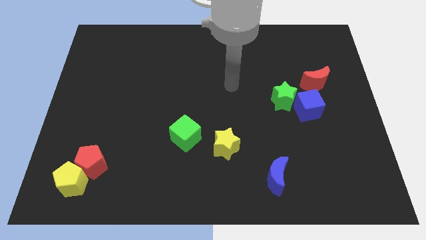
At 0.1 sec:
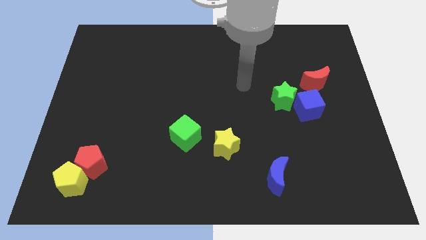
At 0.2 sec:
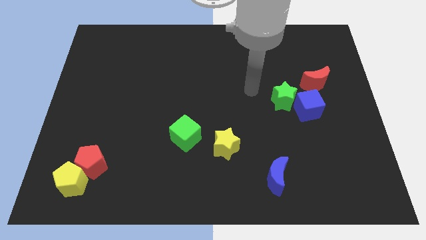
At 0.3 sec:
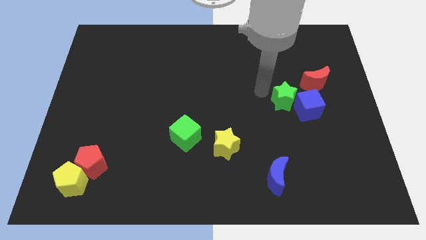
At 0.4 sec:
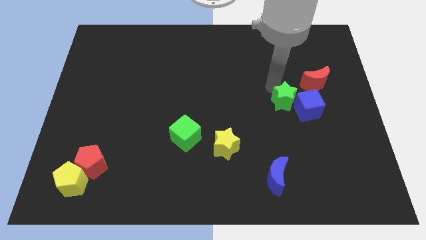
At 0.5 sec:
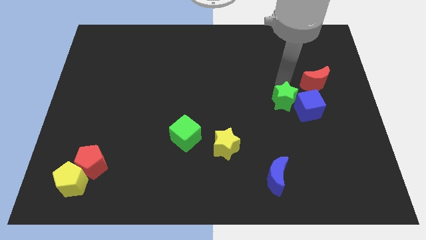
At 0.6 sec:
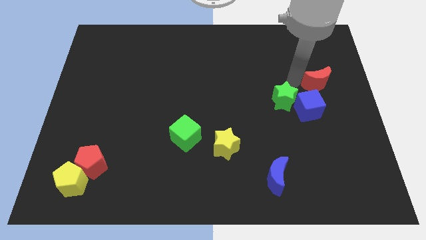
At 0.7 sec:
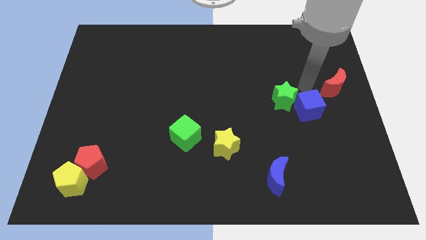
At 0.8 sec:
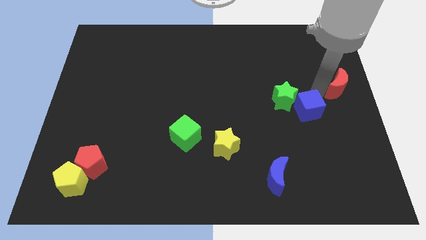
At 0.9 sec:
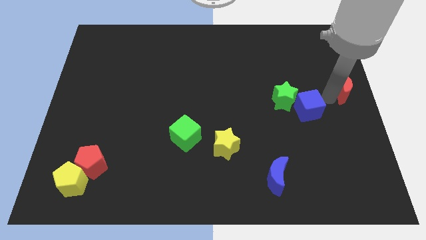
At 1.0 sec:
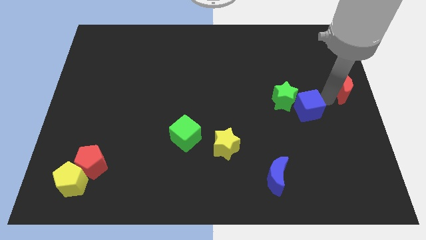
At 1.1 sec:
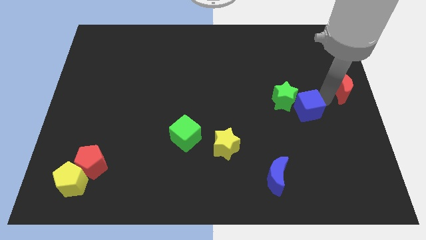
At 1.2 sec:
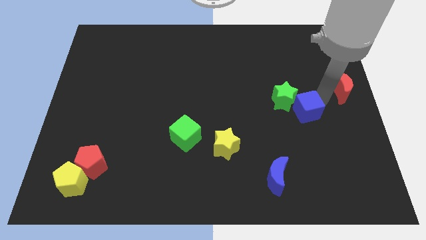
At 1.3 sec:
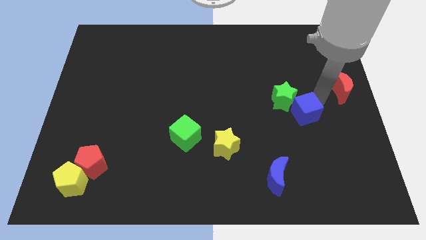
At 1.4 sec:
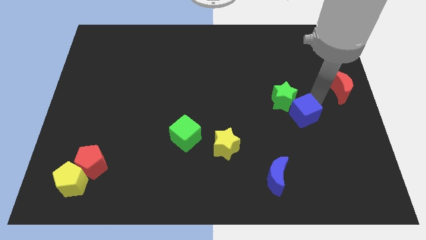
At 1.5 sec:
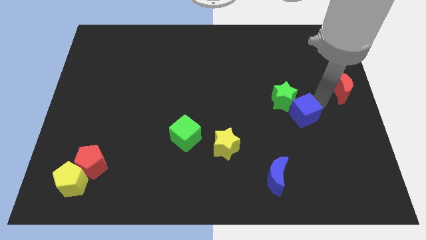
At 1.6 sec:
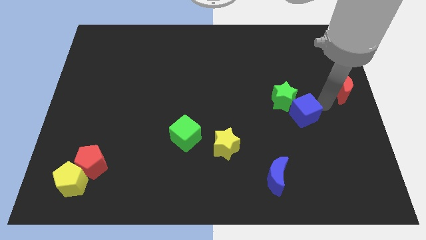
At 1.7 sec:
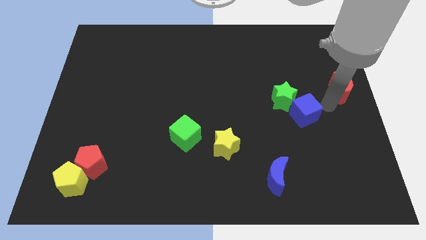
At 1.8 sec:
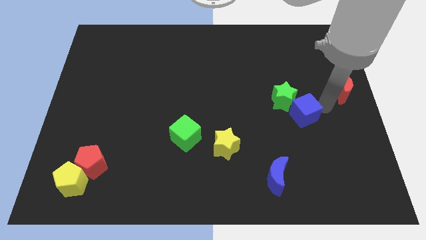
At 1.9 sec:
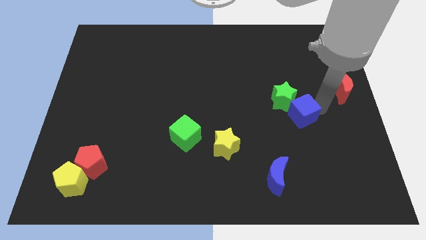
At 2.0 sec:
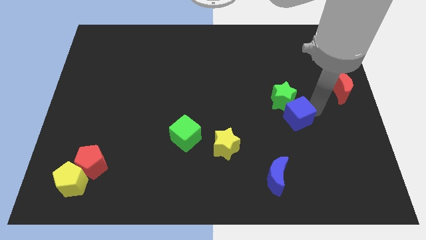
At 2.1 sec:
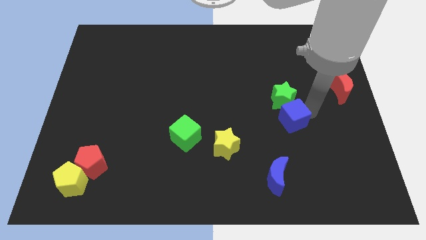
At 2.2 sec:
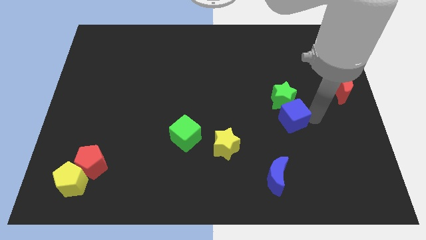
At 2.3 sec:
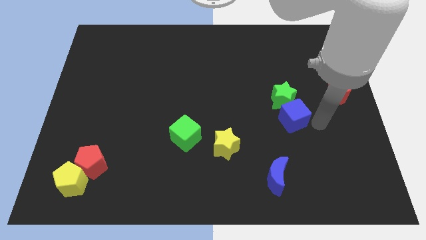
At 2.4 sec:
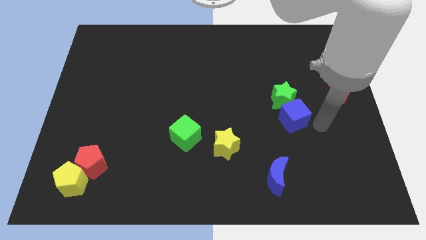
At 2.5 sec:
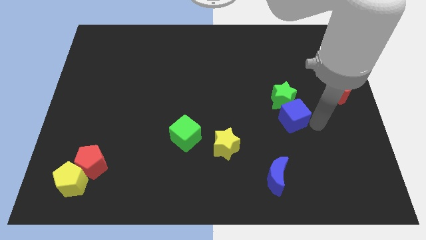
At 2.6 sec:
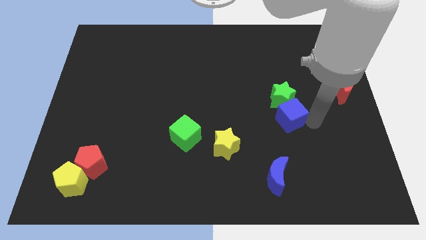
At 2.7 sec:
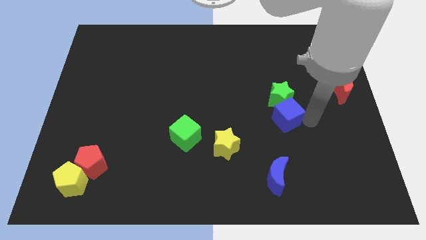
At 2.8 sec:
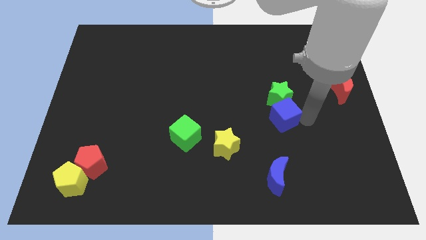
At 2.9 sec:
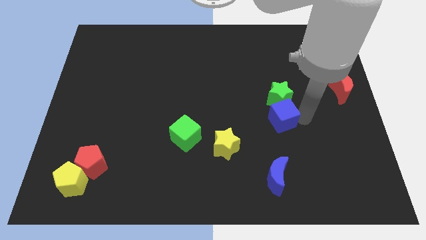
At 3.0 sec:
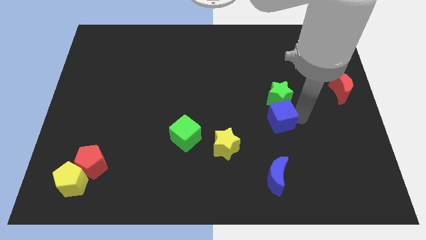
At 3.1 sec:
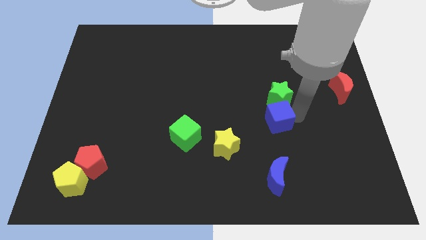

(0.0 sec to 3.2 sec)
slide the blue cube a little to the left

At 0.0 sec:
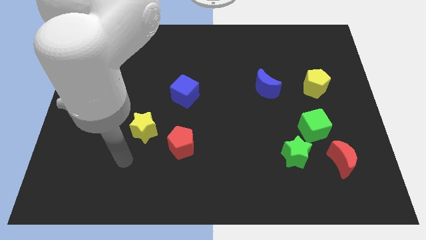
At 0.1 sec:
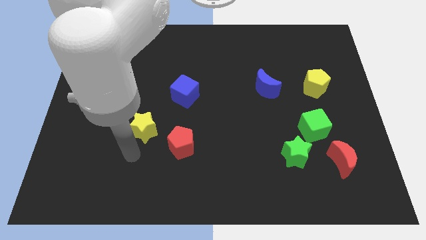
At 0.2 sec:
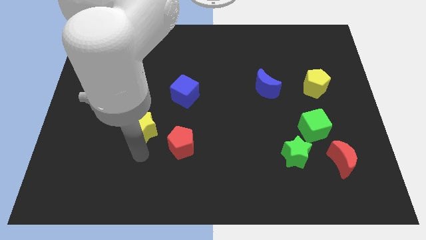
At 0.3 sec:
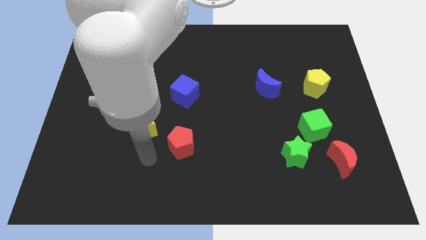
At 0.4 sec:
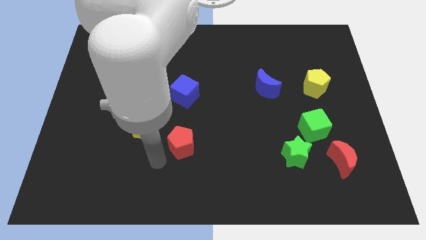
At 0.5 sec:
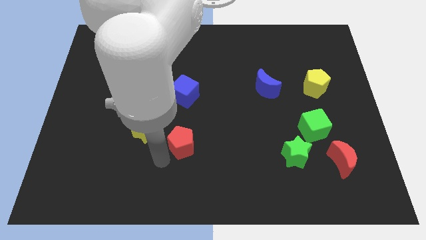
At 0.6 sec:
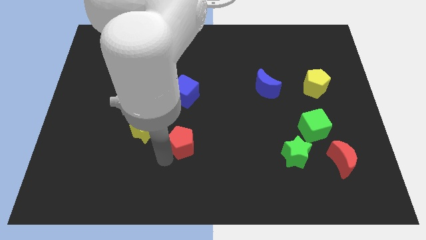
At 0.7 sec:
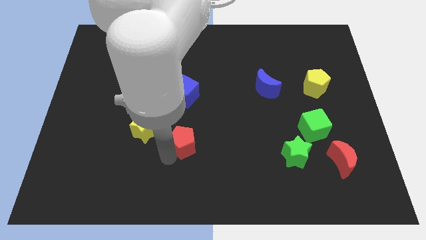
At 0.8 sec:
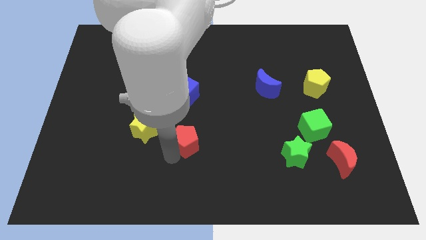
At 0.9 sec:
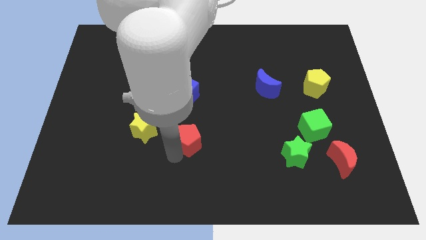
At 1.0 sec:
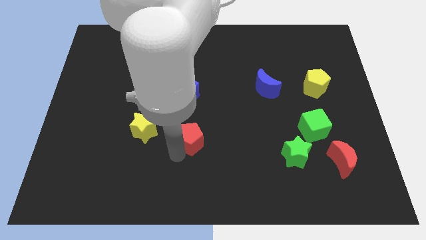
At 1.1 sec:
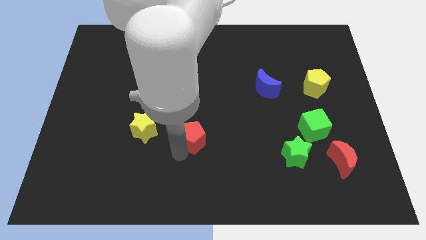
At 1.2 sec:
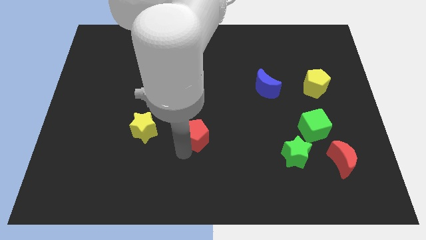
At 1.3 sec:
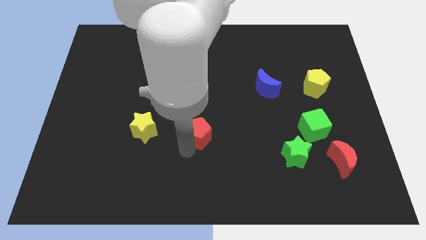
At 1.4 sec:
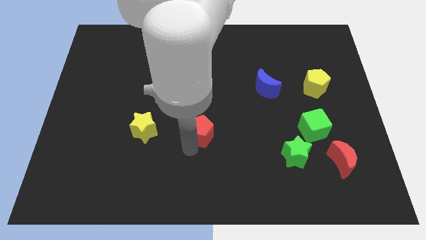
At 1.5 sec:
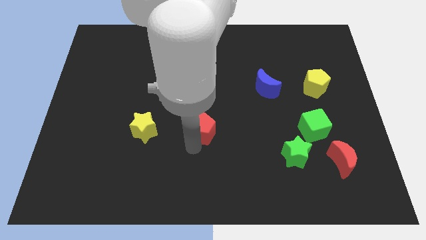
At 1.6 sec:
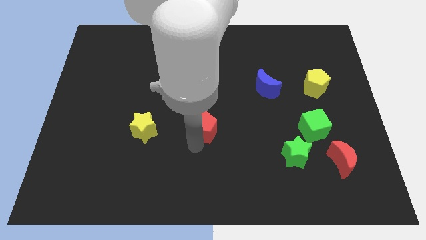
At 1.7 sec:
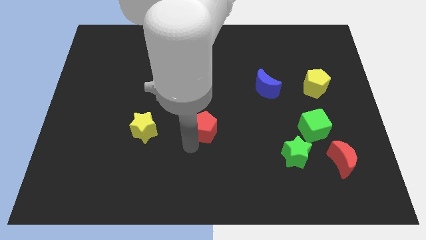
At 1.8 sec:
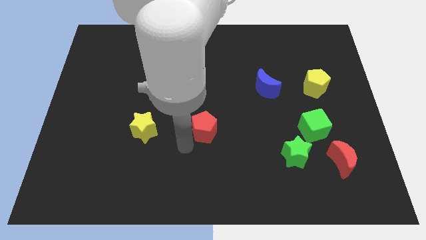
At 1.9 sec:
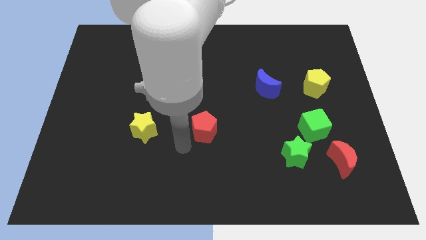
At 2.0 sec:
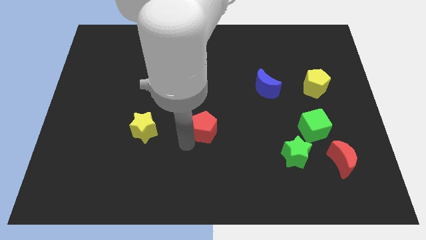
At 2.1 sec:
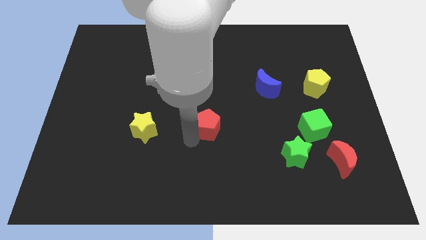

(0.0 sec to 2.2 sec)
slightly push the red pentagon diagonally upwards and to the right

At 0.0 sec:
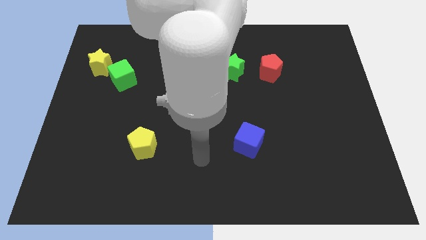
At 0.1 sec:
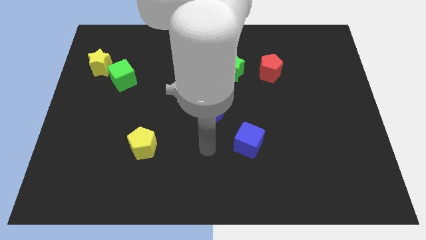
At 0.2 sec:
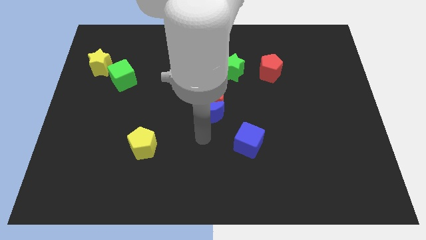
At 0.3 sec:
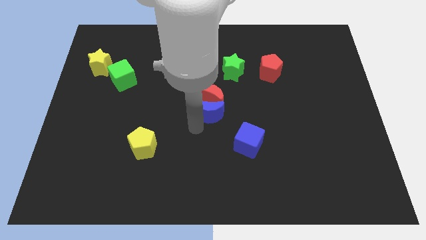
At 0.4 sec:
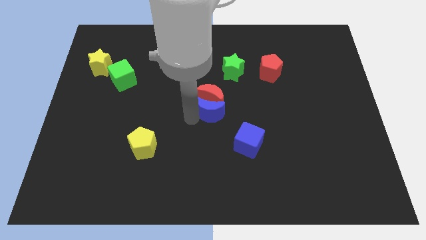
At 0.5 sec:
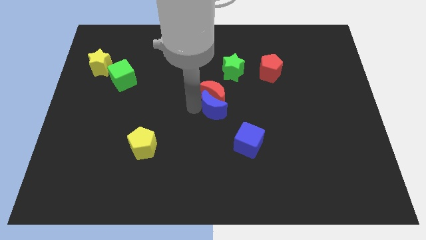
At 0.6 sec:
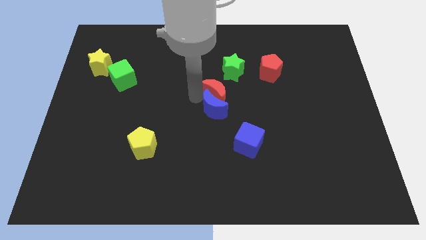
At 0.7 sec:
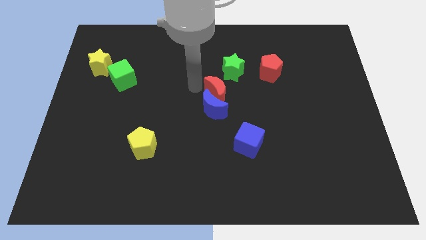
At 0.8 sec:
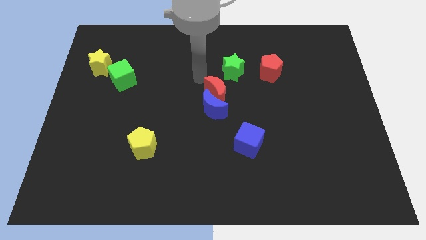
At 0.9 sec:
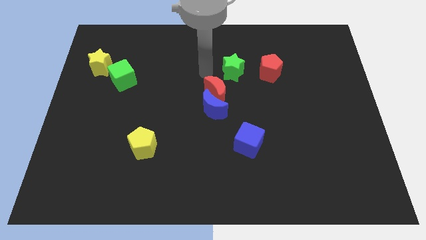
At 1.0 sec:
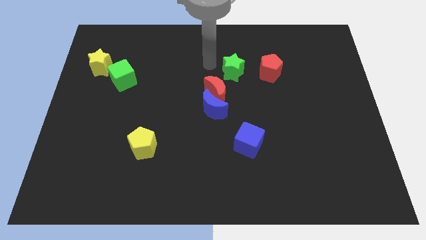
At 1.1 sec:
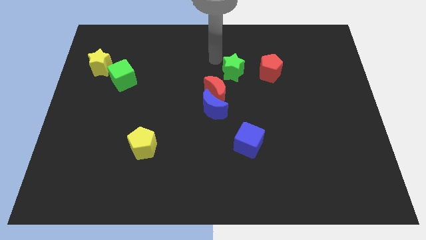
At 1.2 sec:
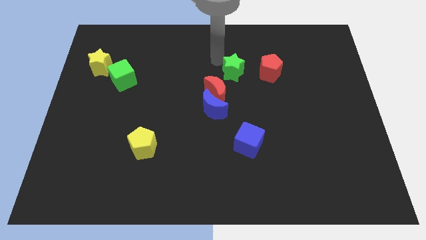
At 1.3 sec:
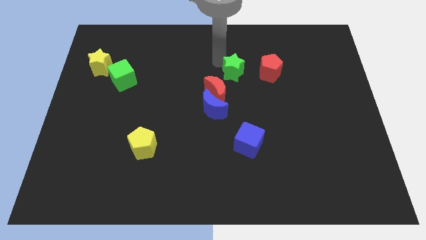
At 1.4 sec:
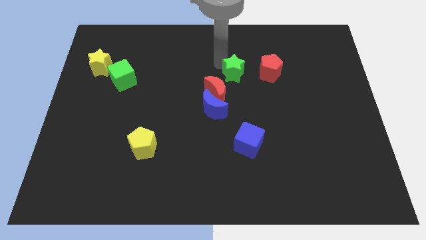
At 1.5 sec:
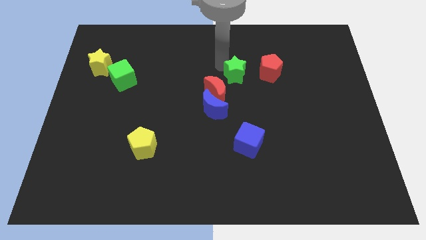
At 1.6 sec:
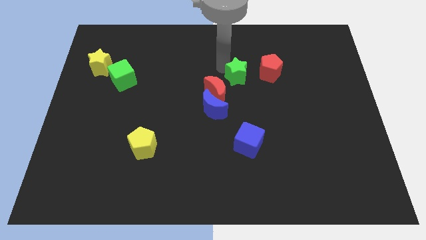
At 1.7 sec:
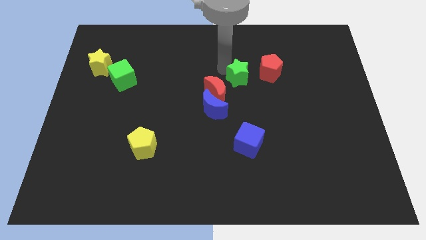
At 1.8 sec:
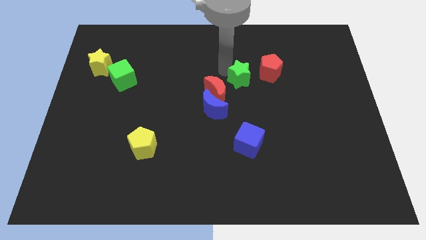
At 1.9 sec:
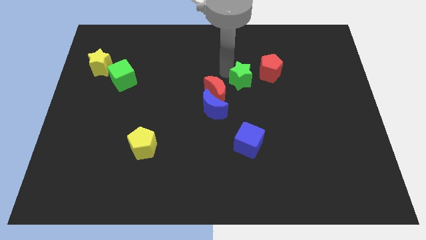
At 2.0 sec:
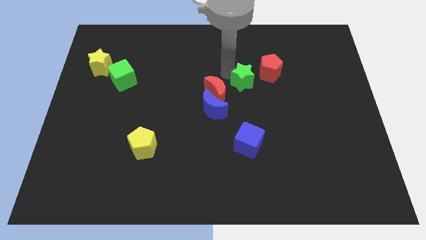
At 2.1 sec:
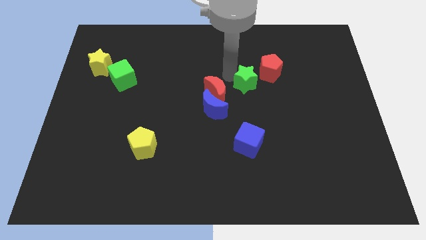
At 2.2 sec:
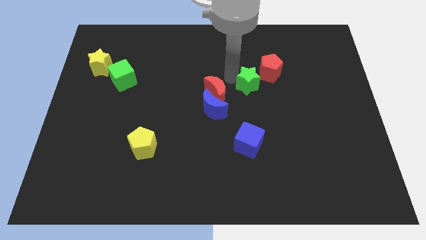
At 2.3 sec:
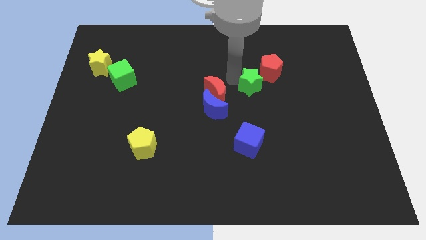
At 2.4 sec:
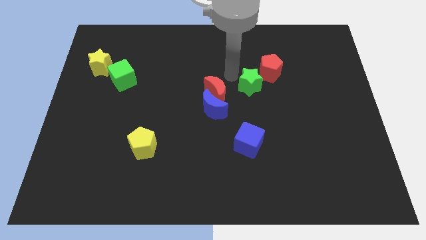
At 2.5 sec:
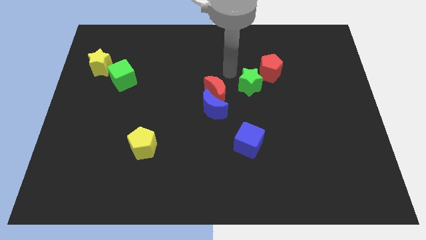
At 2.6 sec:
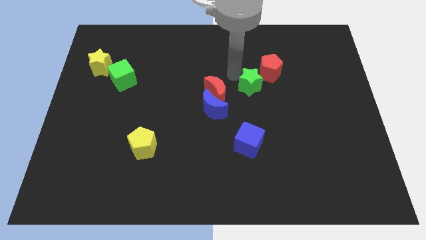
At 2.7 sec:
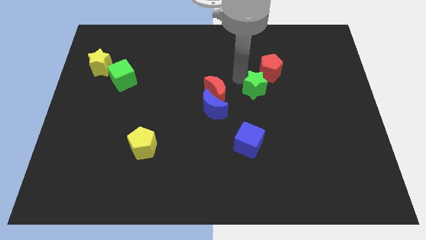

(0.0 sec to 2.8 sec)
move the green star a little downwards and right
